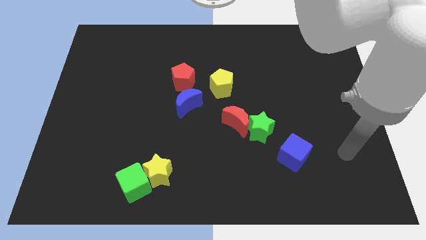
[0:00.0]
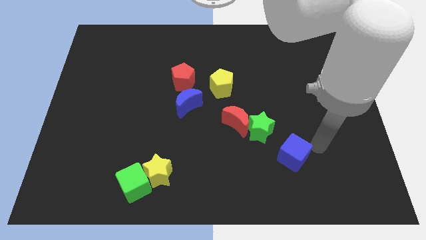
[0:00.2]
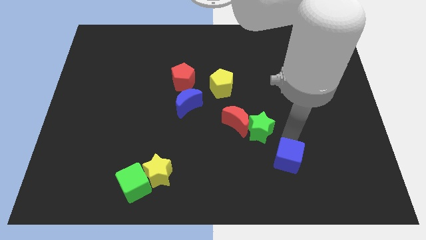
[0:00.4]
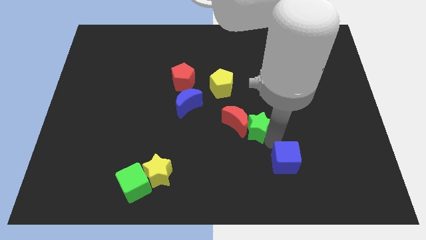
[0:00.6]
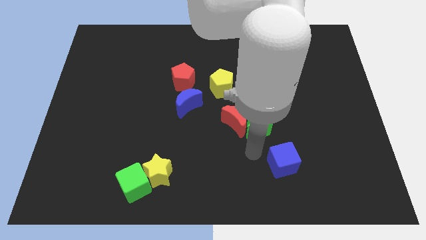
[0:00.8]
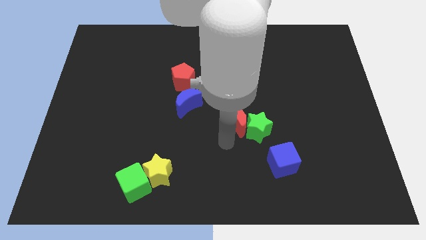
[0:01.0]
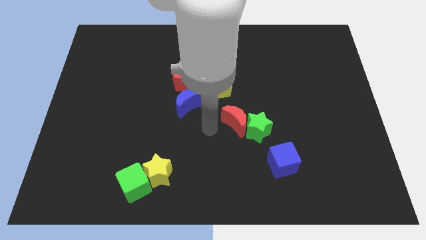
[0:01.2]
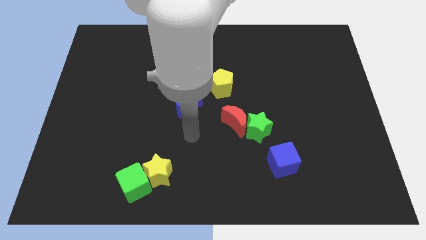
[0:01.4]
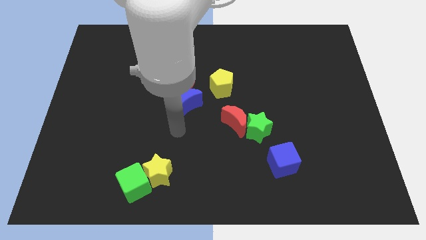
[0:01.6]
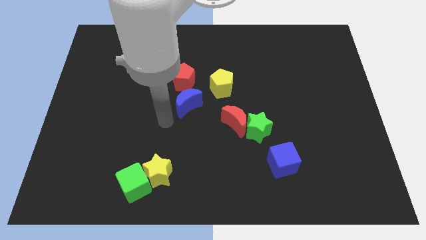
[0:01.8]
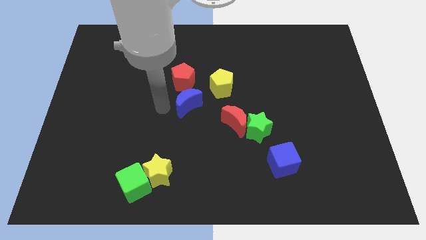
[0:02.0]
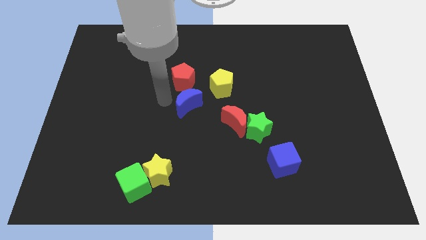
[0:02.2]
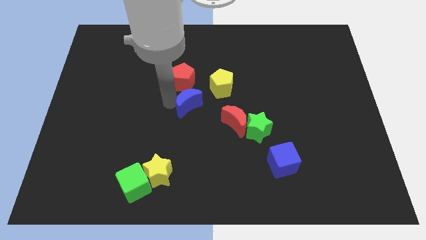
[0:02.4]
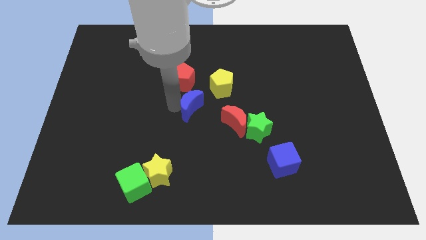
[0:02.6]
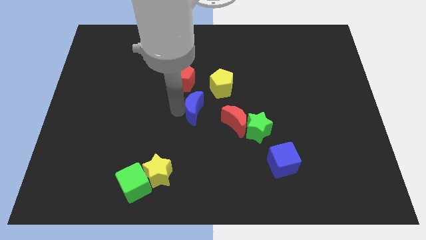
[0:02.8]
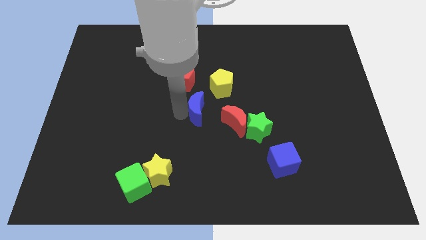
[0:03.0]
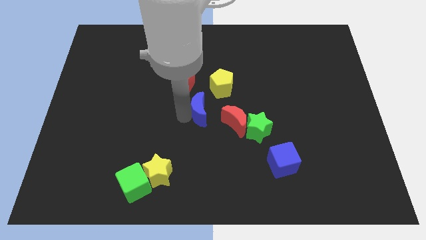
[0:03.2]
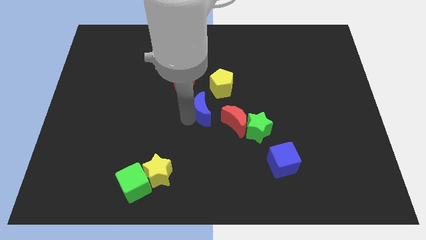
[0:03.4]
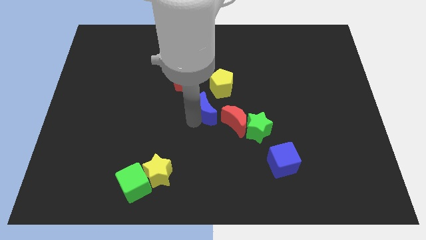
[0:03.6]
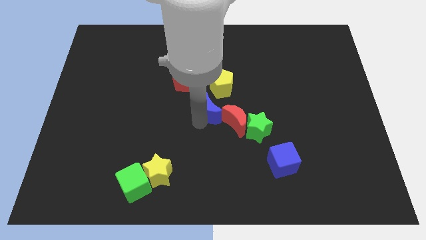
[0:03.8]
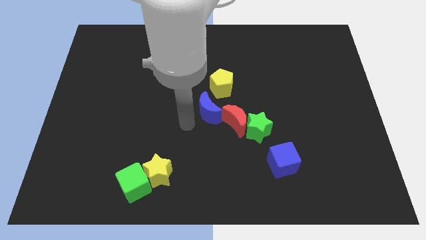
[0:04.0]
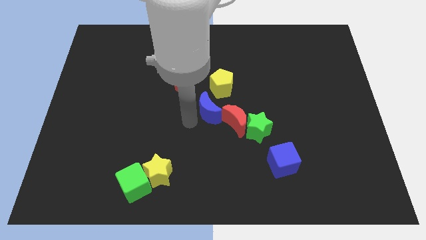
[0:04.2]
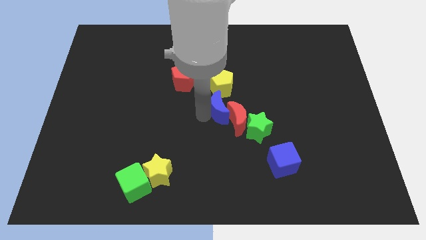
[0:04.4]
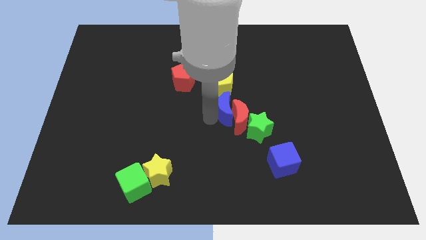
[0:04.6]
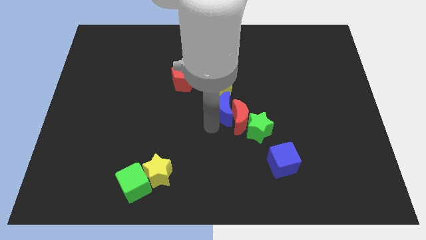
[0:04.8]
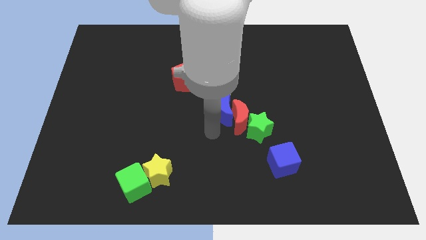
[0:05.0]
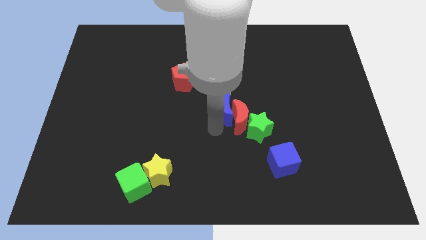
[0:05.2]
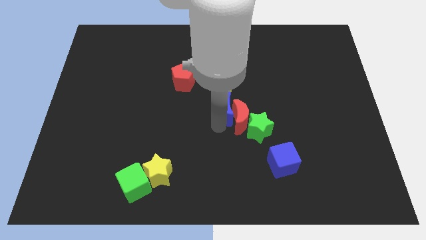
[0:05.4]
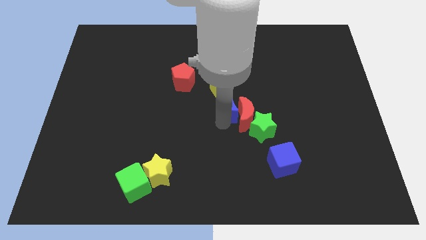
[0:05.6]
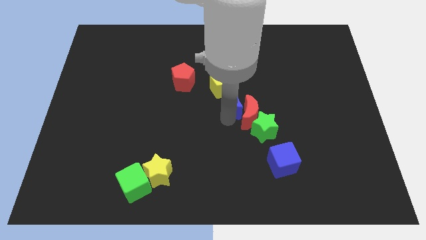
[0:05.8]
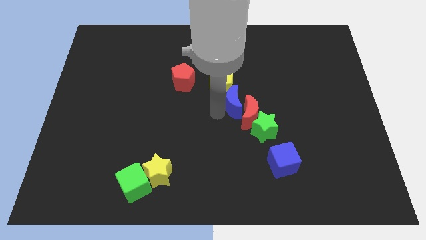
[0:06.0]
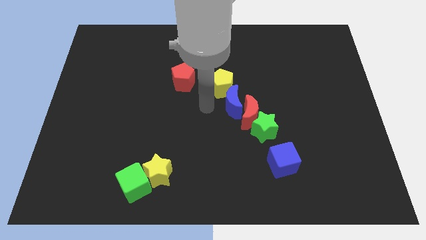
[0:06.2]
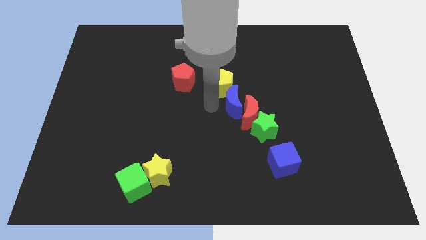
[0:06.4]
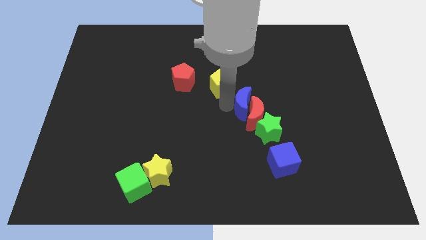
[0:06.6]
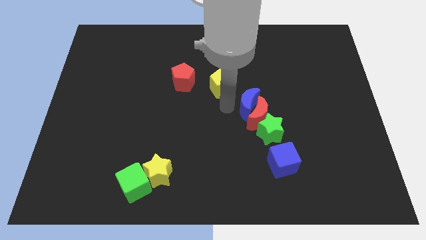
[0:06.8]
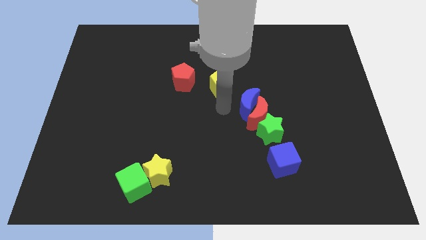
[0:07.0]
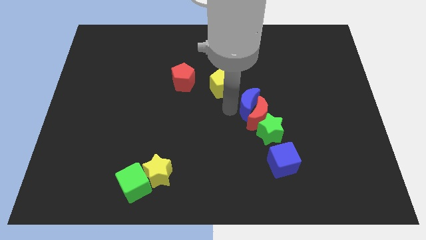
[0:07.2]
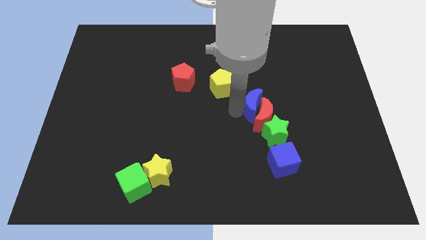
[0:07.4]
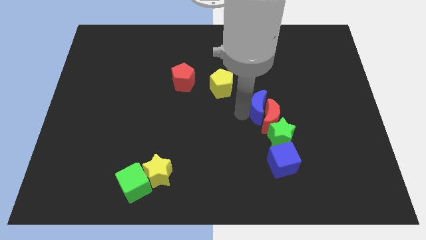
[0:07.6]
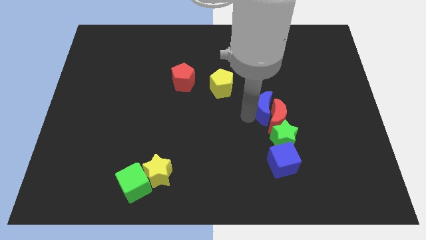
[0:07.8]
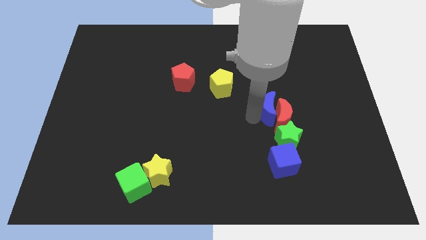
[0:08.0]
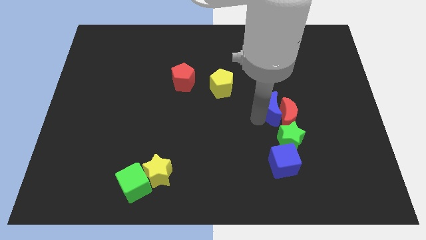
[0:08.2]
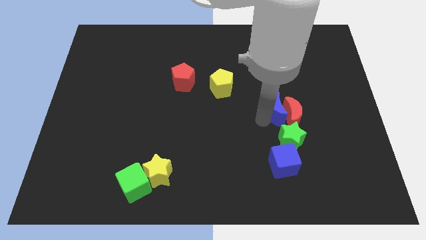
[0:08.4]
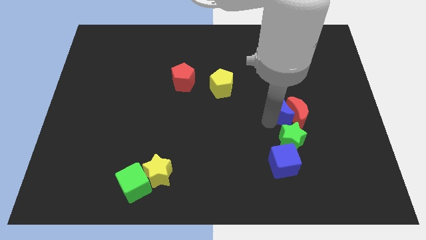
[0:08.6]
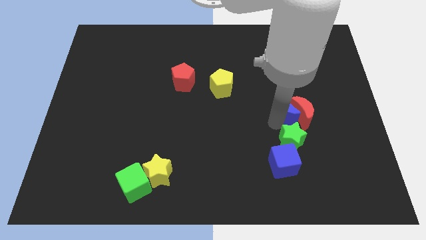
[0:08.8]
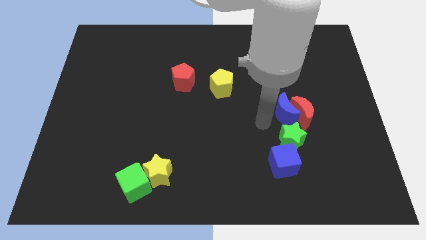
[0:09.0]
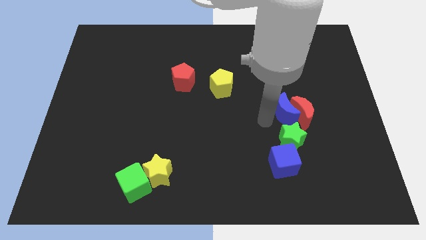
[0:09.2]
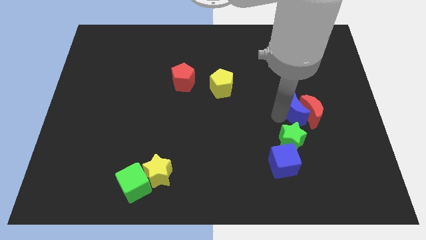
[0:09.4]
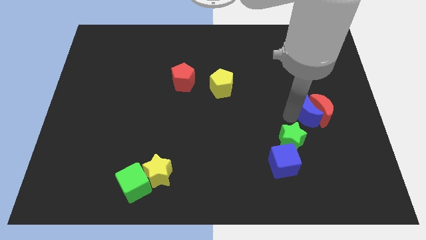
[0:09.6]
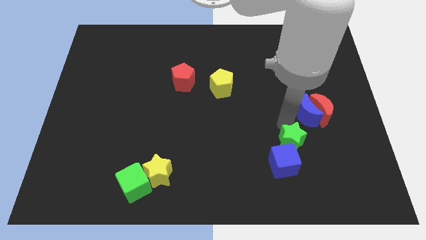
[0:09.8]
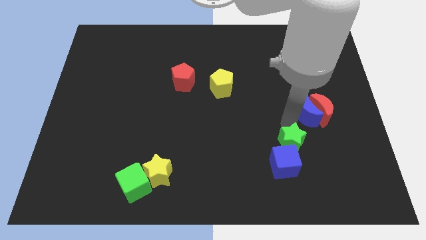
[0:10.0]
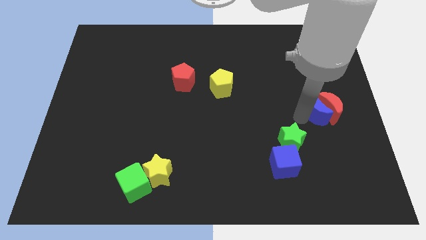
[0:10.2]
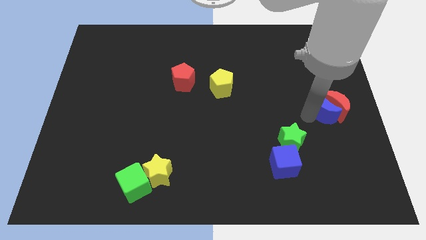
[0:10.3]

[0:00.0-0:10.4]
slide the blue moon to the right side

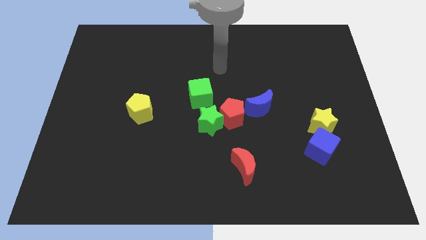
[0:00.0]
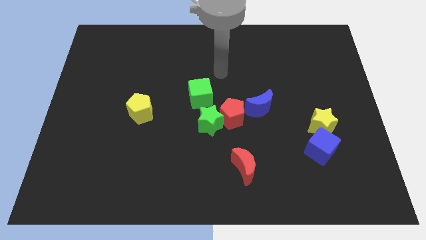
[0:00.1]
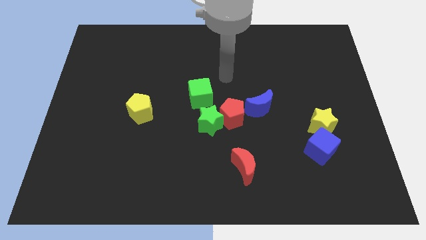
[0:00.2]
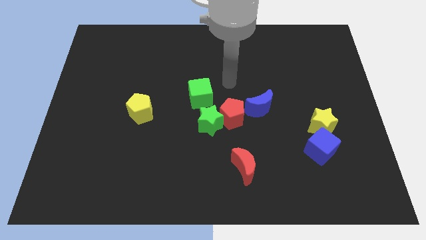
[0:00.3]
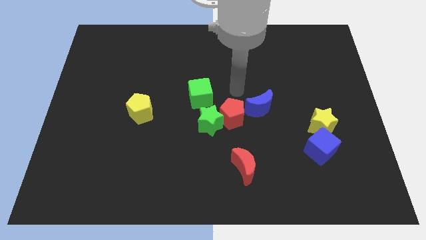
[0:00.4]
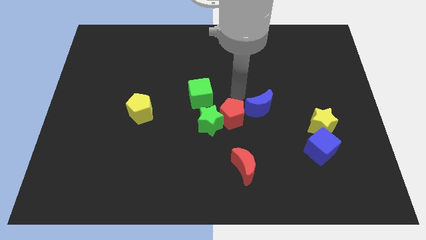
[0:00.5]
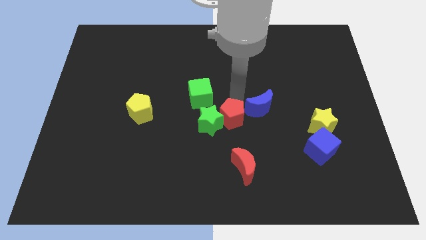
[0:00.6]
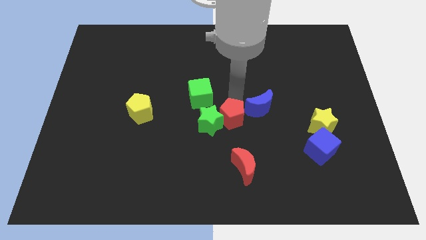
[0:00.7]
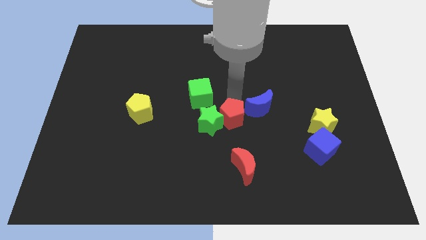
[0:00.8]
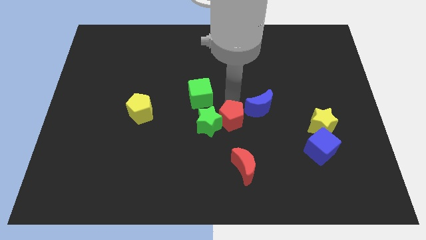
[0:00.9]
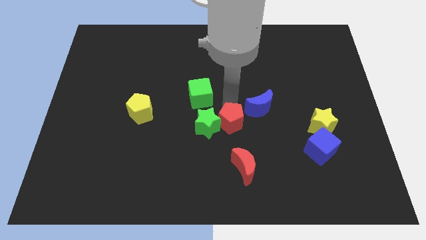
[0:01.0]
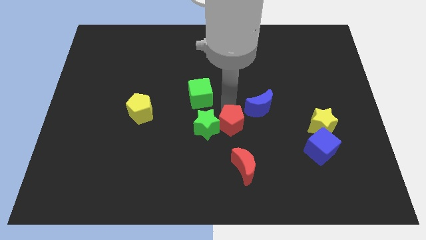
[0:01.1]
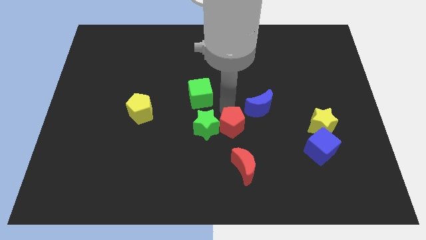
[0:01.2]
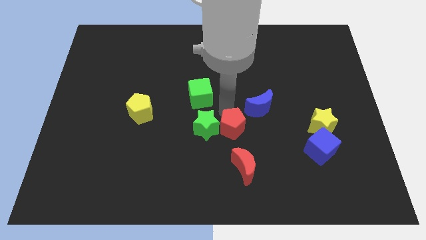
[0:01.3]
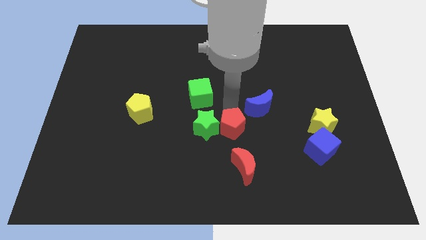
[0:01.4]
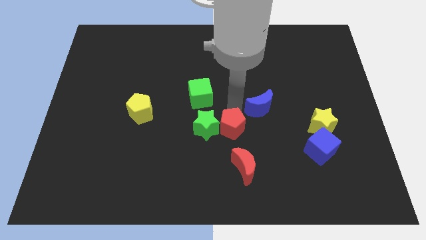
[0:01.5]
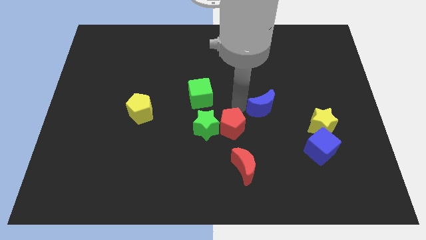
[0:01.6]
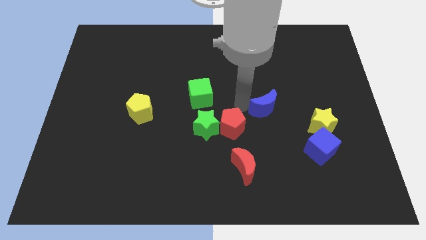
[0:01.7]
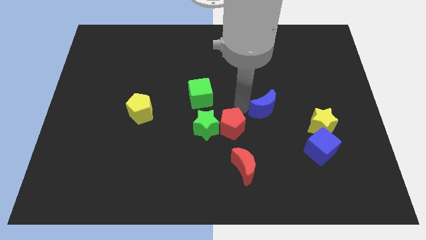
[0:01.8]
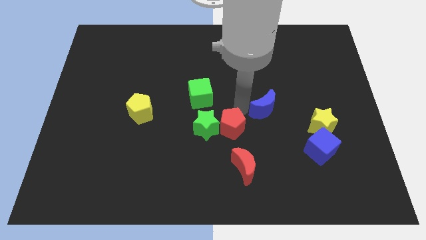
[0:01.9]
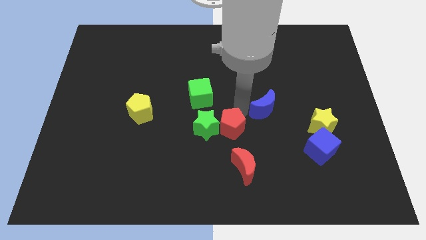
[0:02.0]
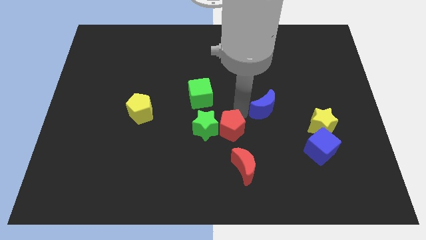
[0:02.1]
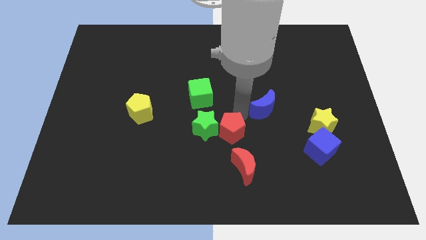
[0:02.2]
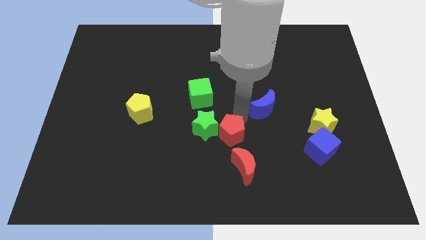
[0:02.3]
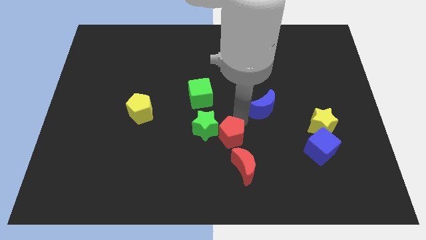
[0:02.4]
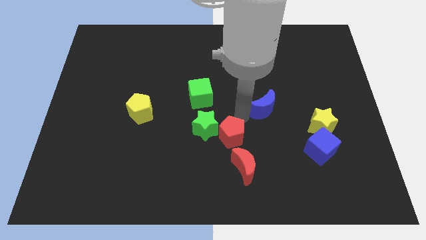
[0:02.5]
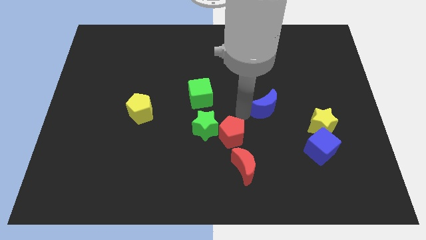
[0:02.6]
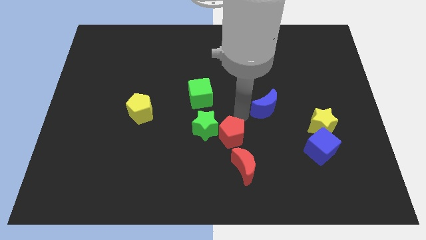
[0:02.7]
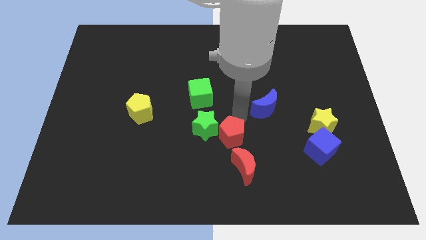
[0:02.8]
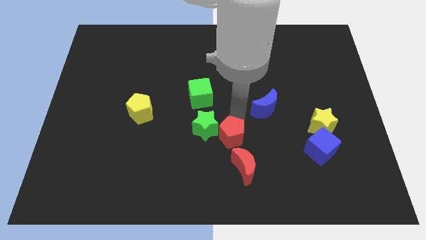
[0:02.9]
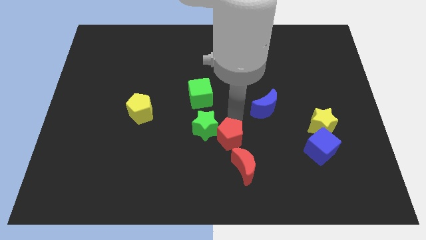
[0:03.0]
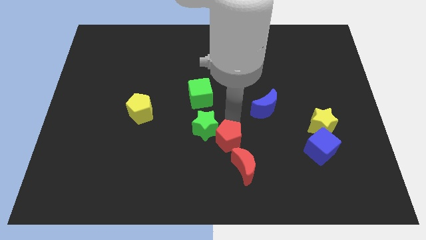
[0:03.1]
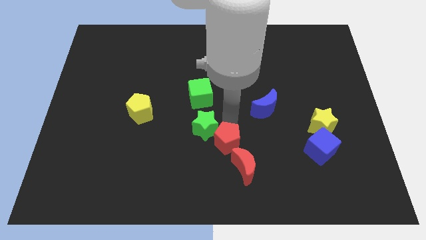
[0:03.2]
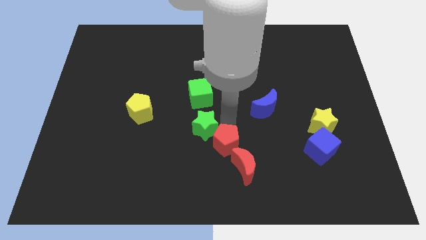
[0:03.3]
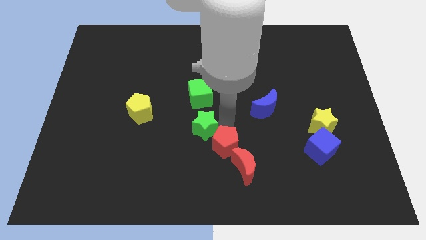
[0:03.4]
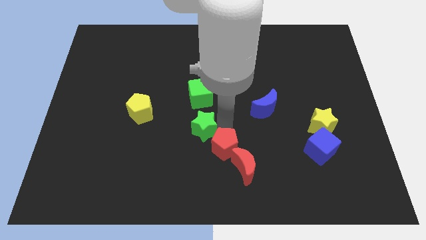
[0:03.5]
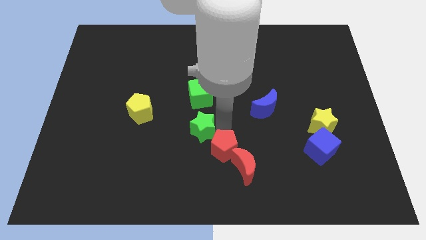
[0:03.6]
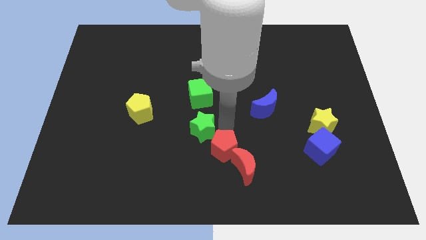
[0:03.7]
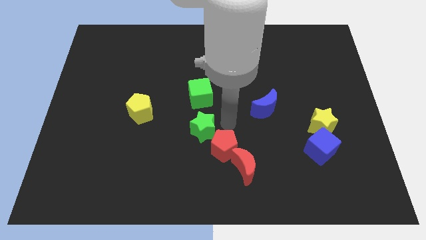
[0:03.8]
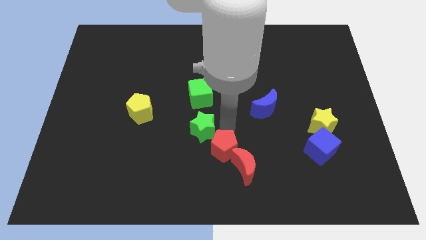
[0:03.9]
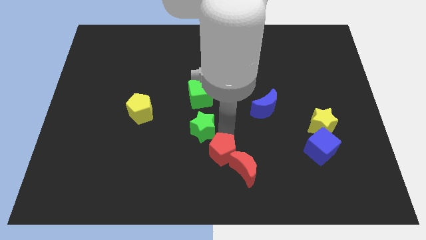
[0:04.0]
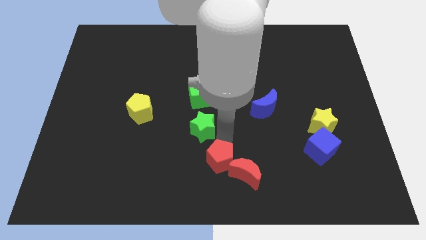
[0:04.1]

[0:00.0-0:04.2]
slide the red pentagon to the bottom side
